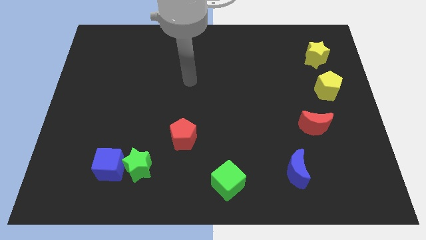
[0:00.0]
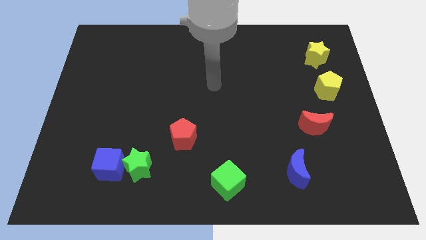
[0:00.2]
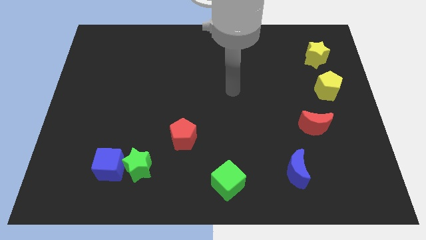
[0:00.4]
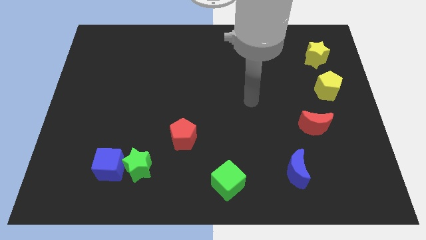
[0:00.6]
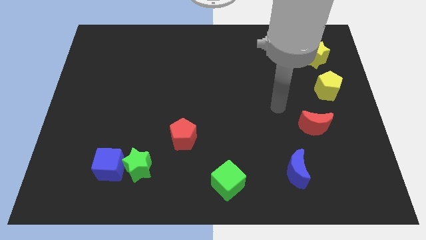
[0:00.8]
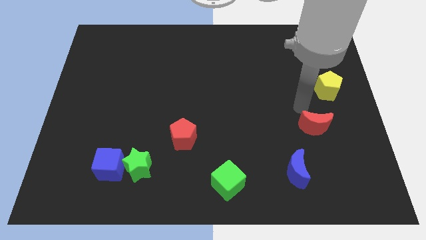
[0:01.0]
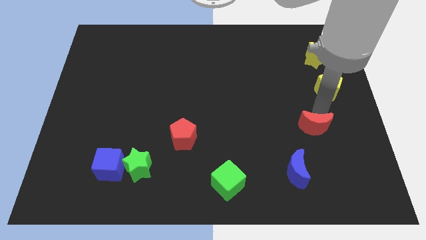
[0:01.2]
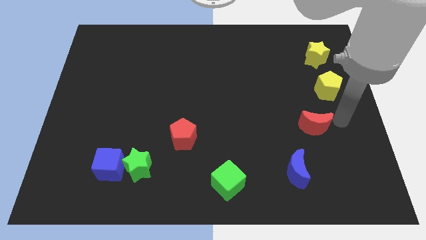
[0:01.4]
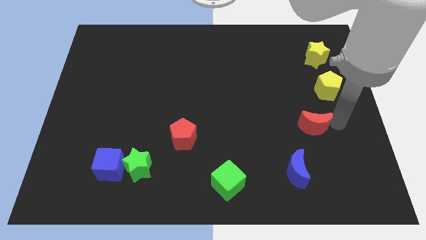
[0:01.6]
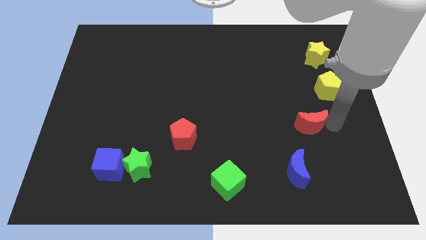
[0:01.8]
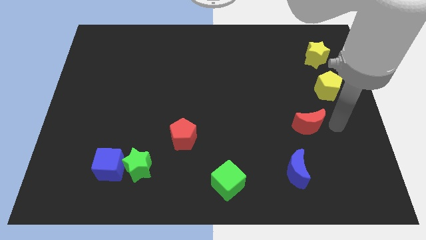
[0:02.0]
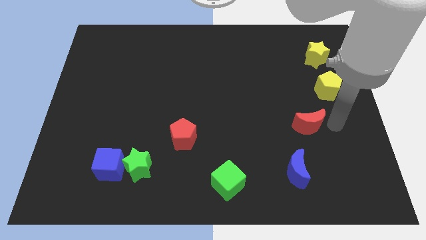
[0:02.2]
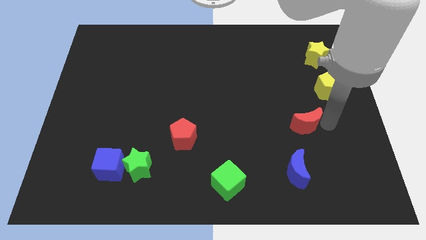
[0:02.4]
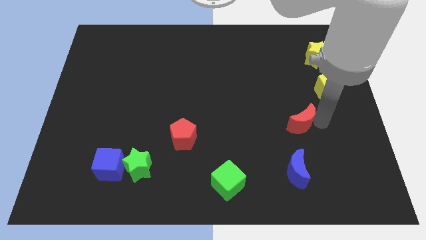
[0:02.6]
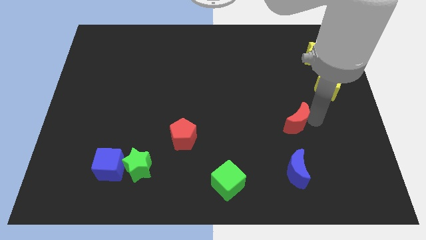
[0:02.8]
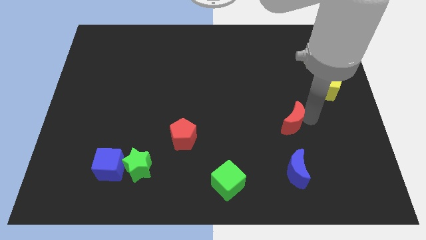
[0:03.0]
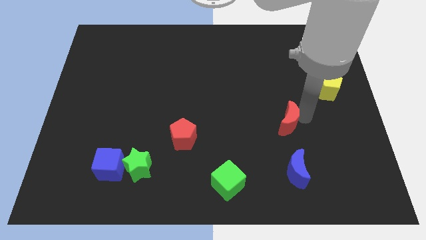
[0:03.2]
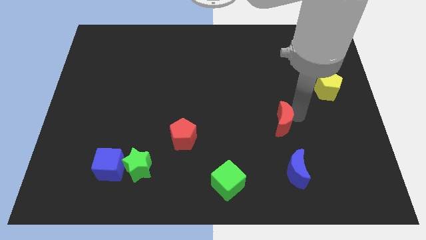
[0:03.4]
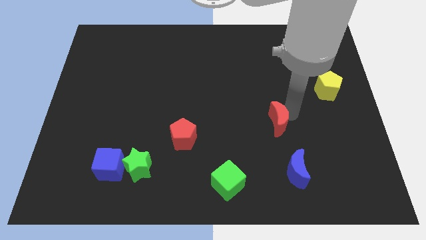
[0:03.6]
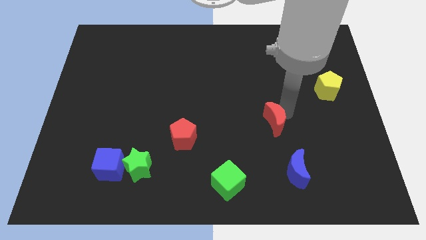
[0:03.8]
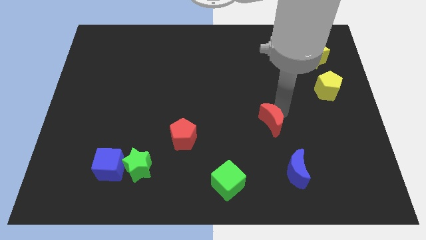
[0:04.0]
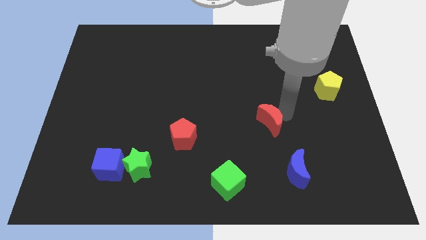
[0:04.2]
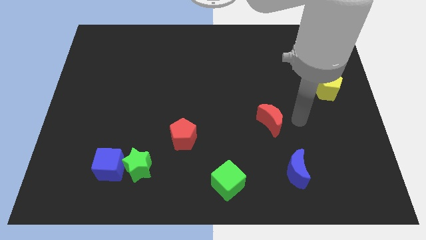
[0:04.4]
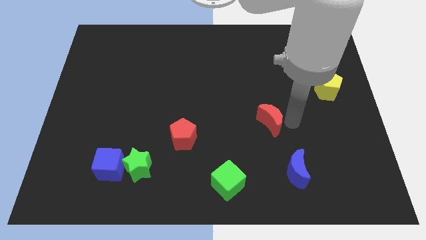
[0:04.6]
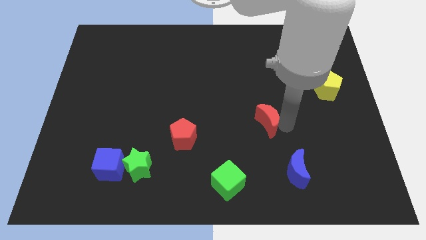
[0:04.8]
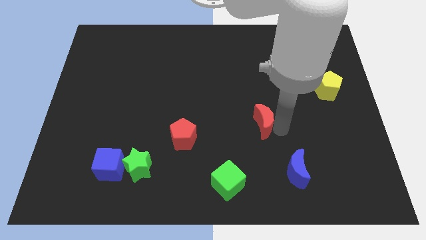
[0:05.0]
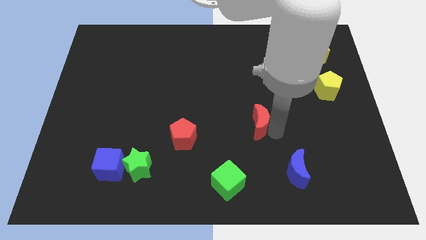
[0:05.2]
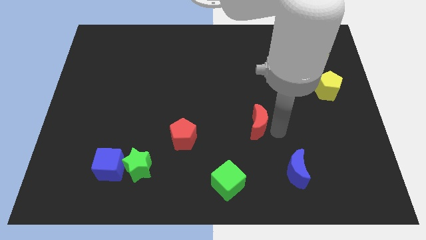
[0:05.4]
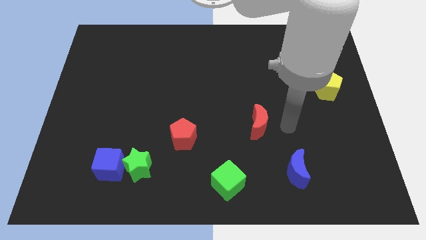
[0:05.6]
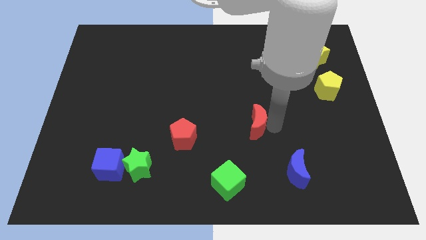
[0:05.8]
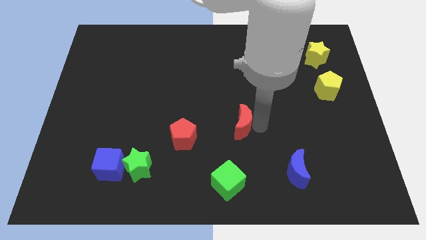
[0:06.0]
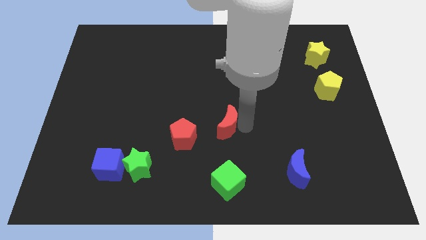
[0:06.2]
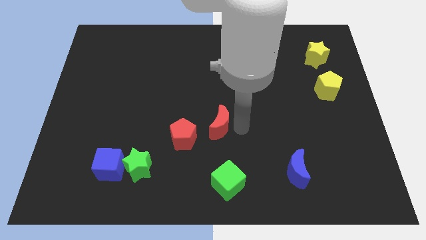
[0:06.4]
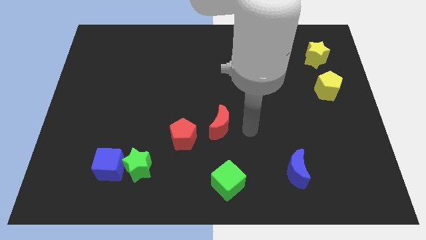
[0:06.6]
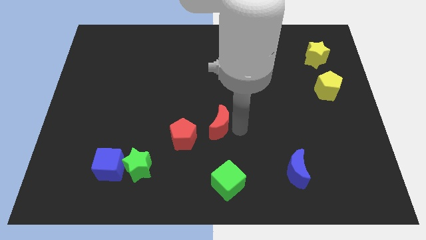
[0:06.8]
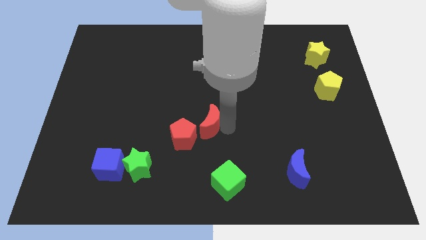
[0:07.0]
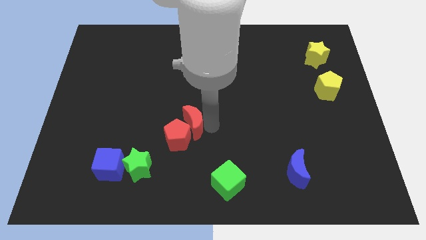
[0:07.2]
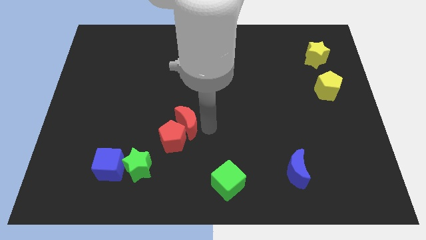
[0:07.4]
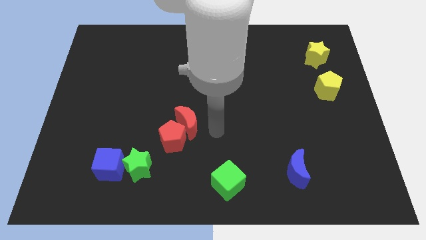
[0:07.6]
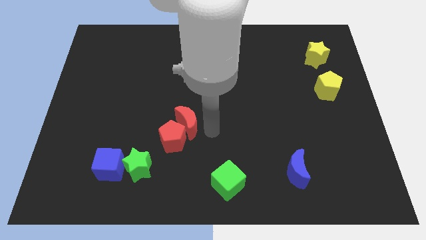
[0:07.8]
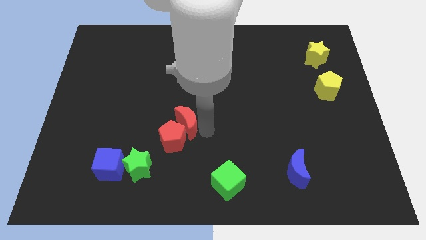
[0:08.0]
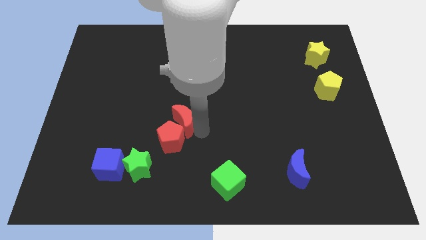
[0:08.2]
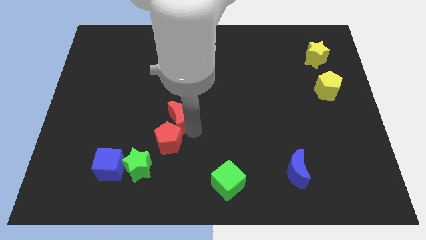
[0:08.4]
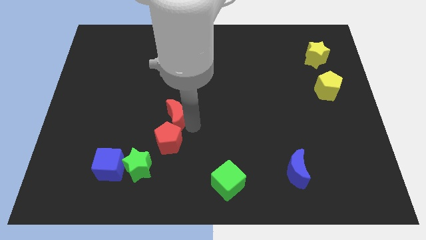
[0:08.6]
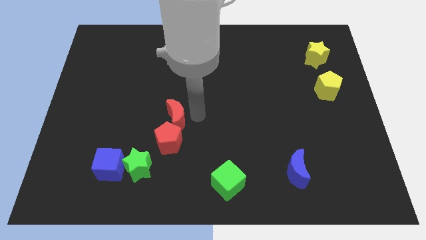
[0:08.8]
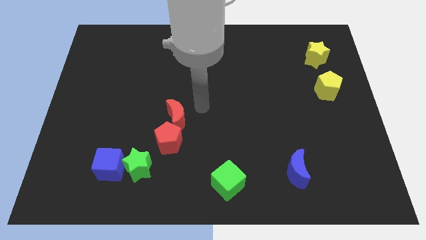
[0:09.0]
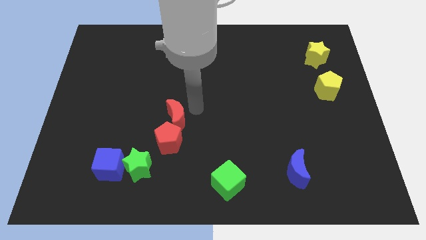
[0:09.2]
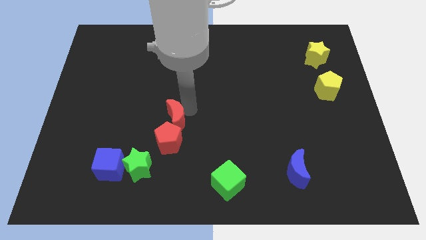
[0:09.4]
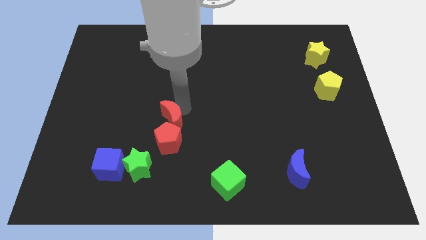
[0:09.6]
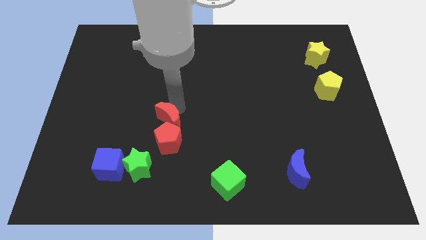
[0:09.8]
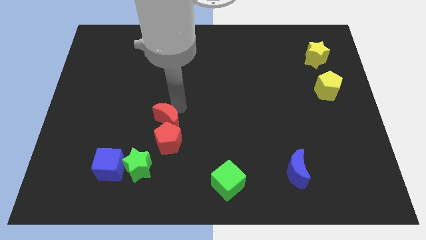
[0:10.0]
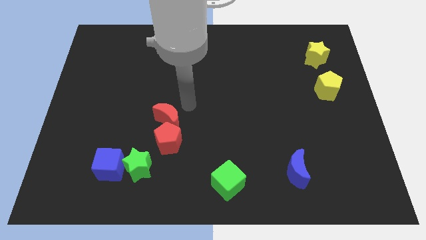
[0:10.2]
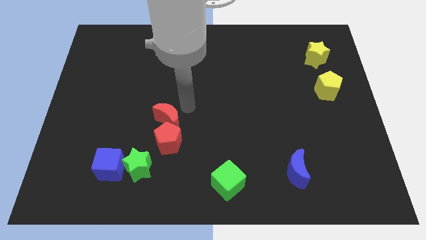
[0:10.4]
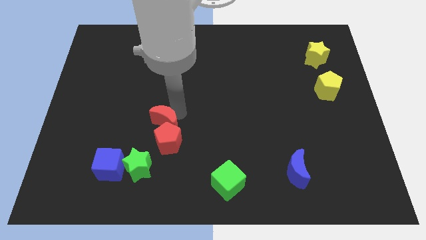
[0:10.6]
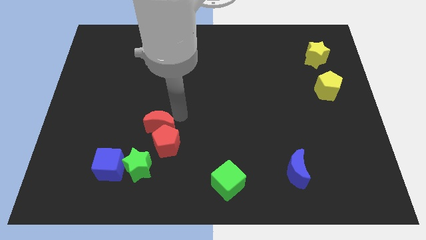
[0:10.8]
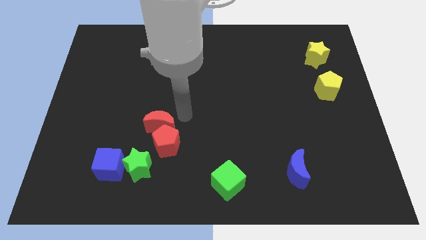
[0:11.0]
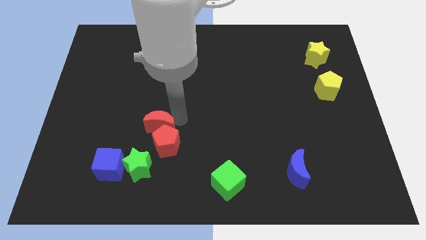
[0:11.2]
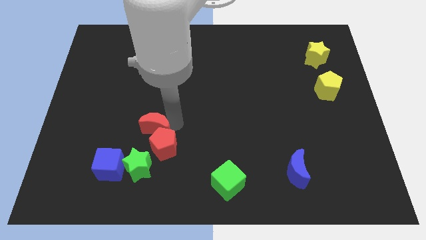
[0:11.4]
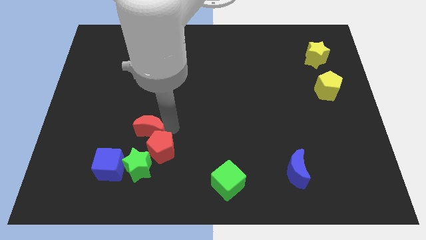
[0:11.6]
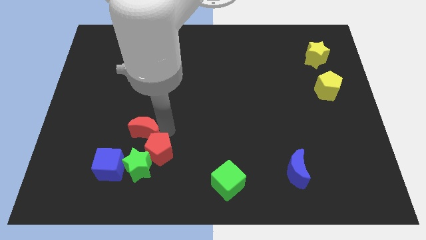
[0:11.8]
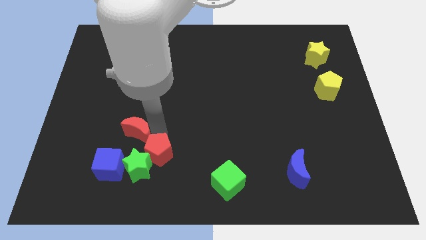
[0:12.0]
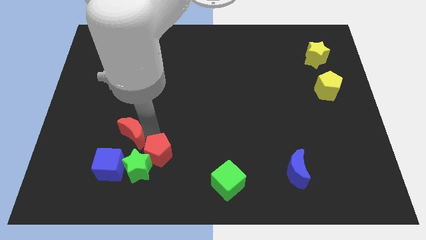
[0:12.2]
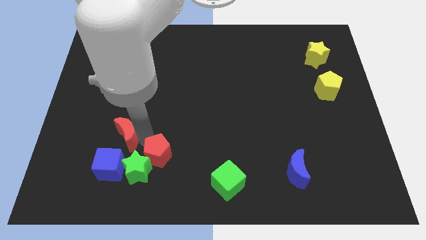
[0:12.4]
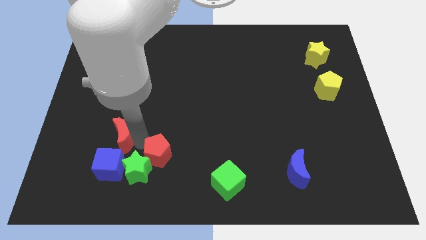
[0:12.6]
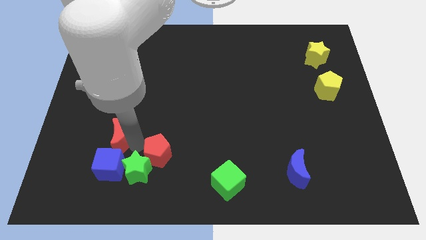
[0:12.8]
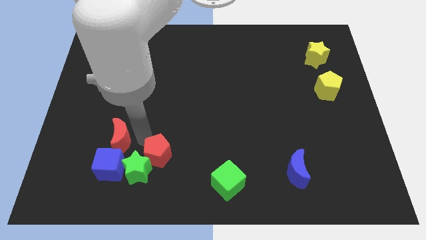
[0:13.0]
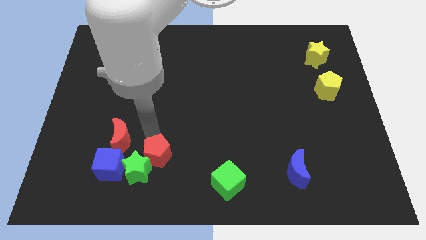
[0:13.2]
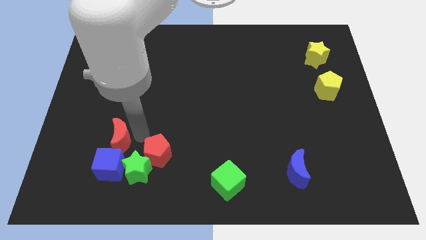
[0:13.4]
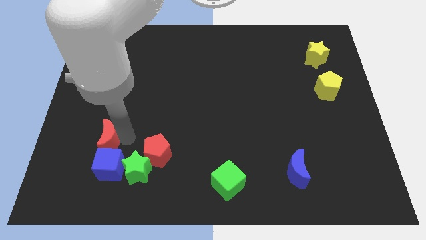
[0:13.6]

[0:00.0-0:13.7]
slide the red moon diagonally up and to the left of the blue cube

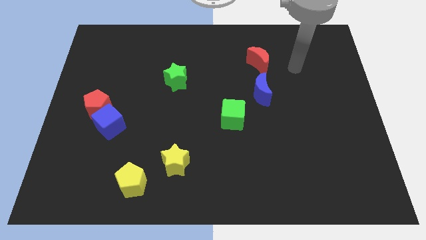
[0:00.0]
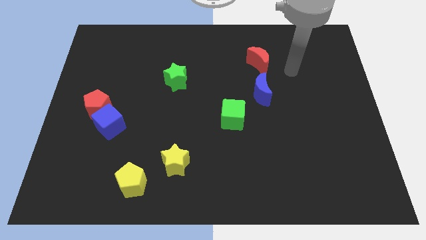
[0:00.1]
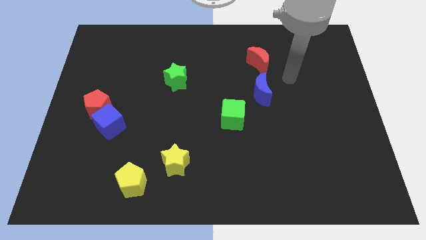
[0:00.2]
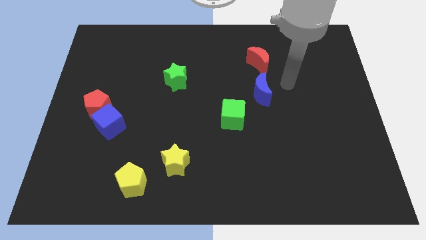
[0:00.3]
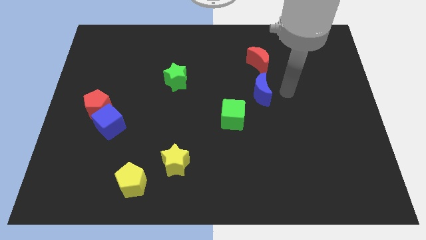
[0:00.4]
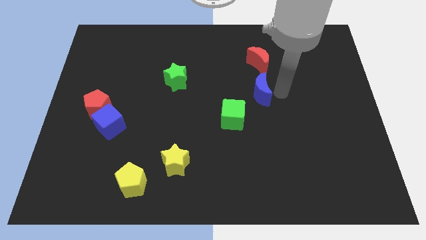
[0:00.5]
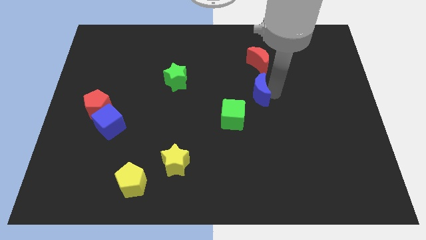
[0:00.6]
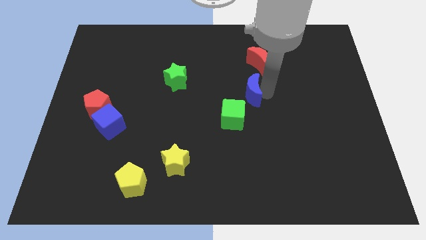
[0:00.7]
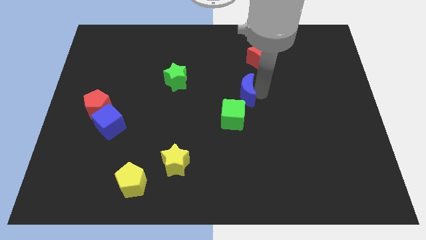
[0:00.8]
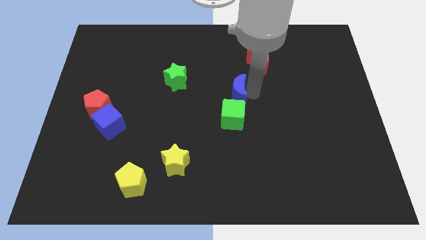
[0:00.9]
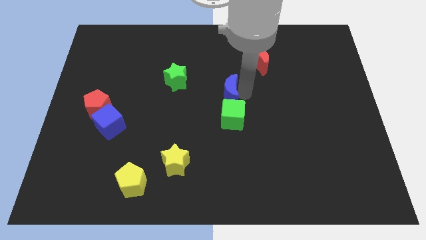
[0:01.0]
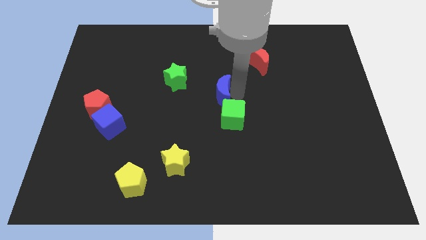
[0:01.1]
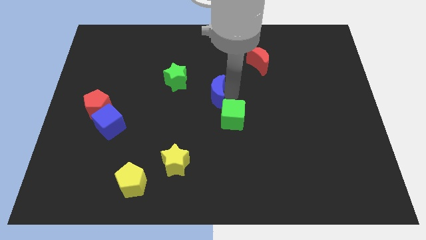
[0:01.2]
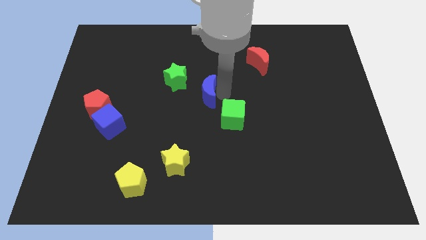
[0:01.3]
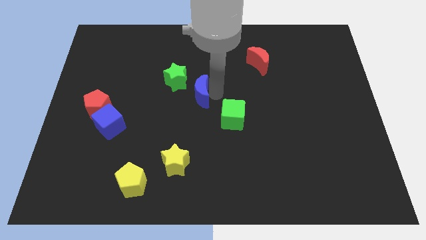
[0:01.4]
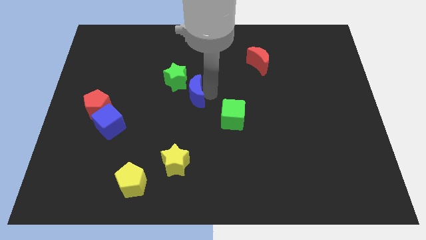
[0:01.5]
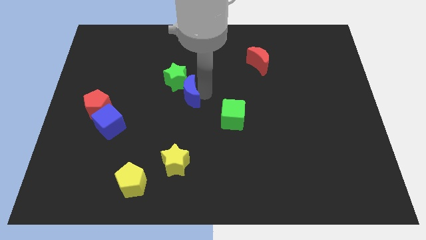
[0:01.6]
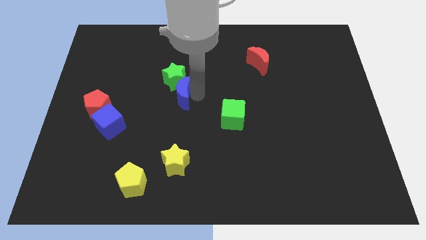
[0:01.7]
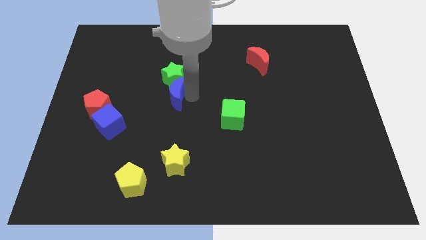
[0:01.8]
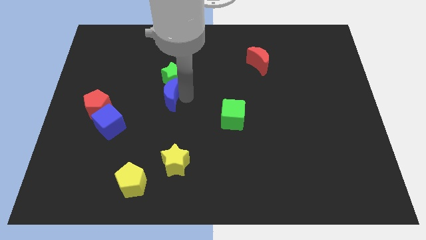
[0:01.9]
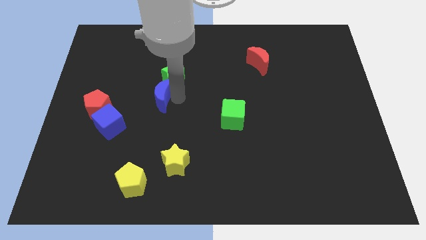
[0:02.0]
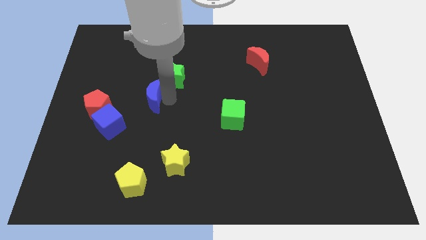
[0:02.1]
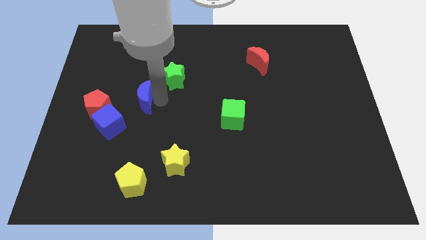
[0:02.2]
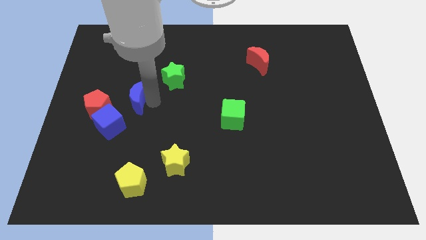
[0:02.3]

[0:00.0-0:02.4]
put the blue moon diagonally up and to the right of the red pentagon
